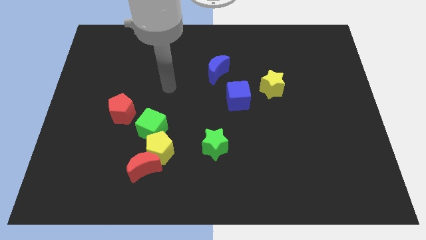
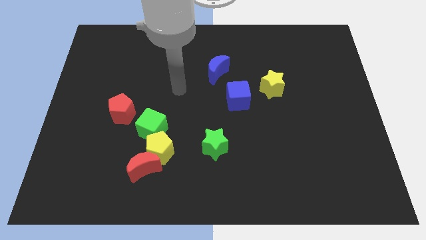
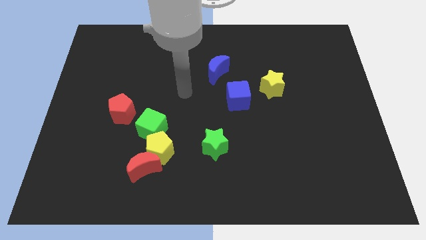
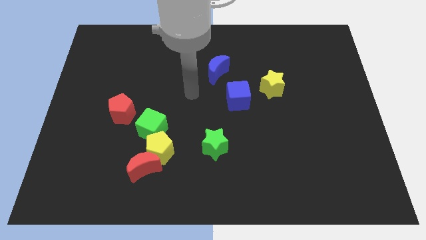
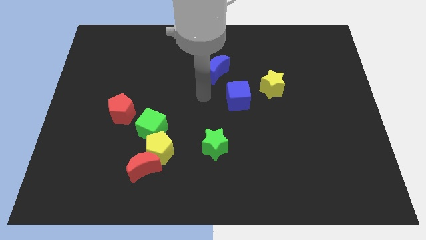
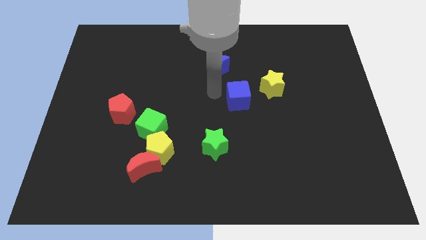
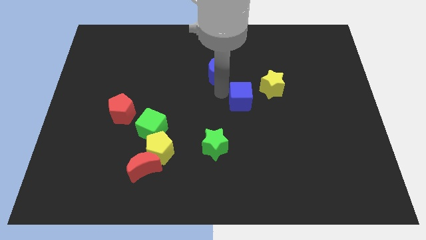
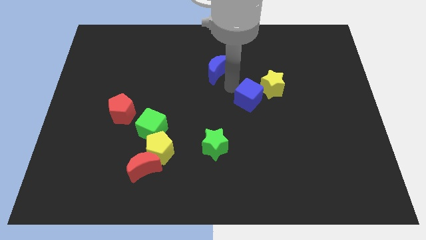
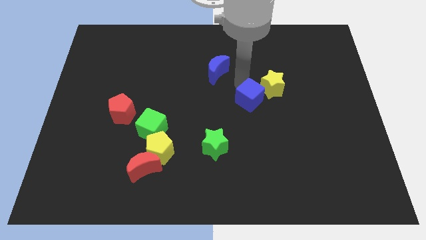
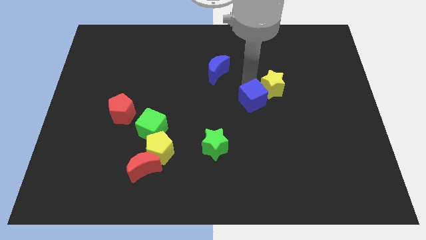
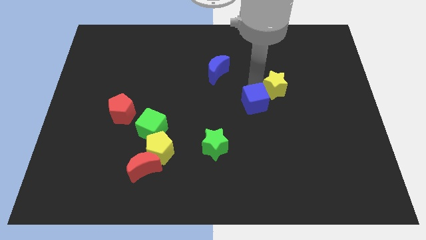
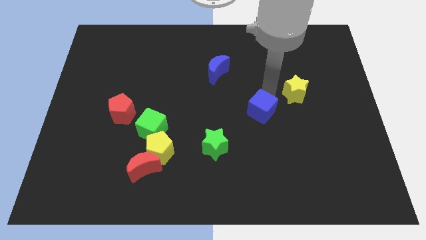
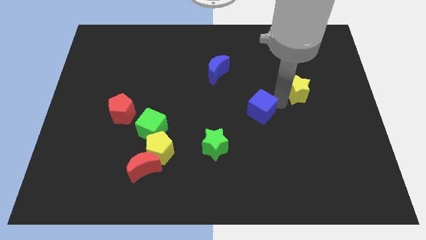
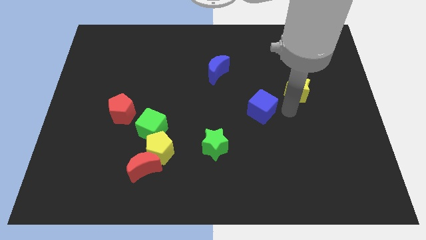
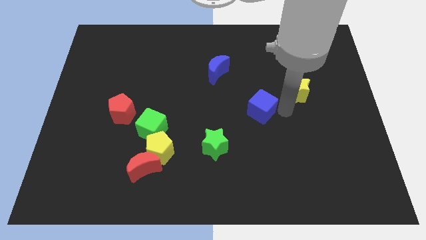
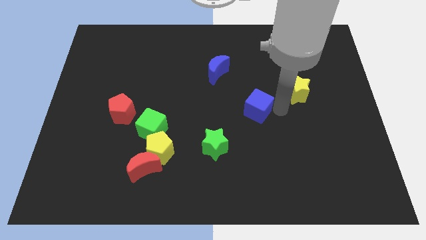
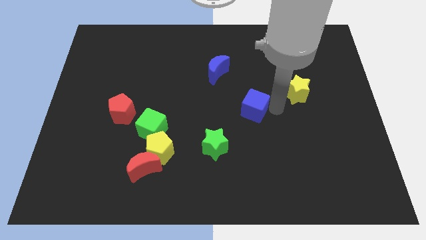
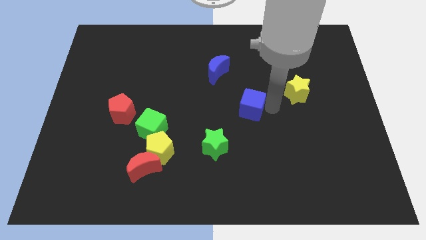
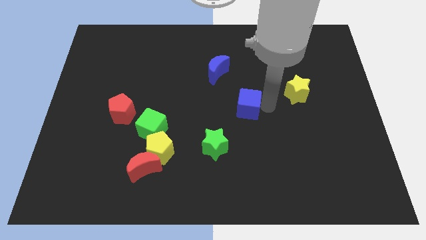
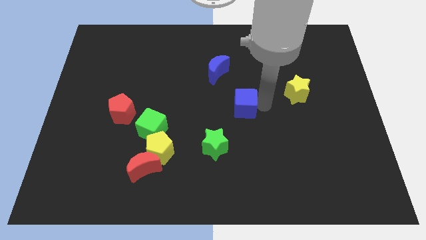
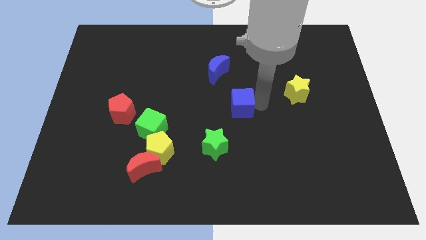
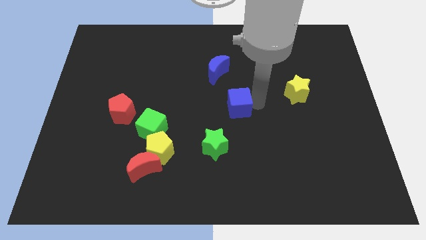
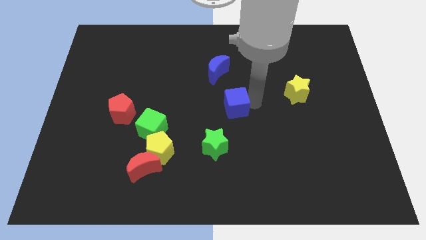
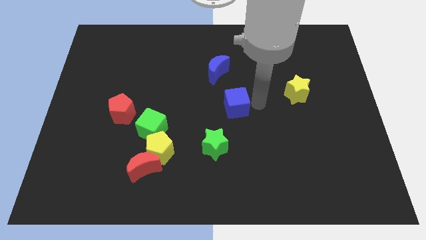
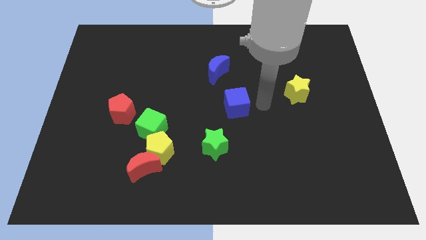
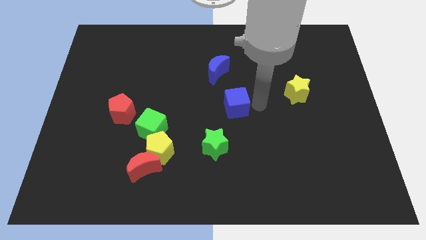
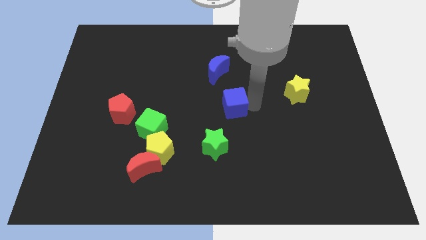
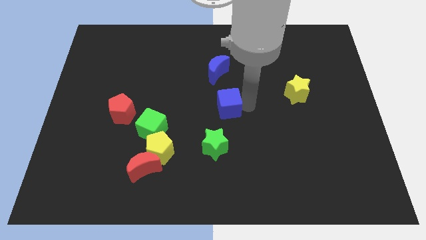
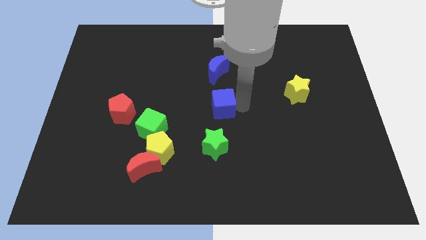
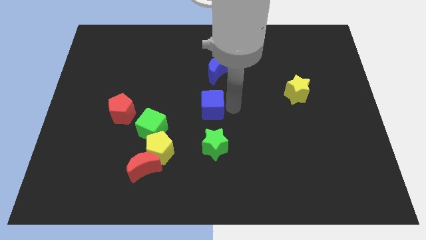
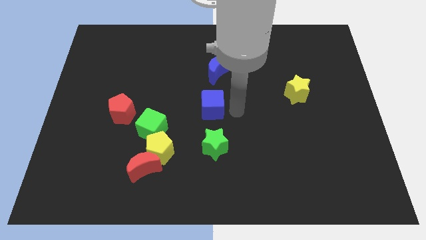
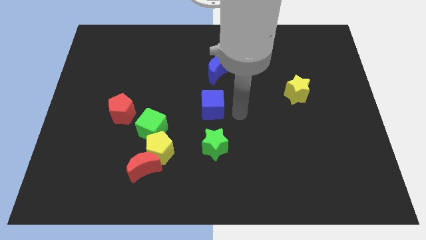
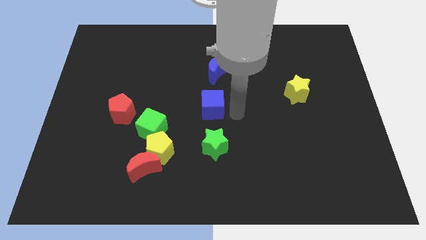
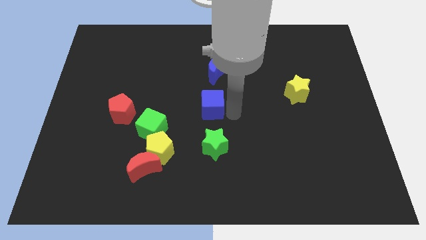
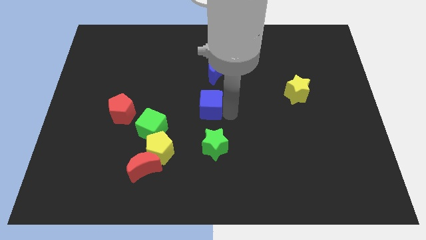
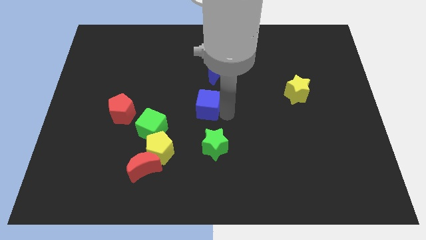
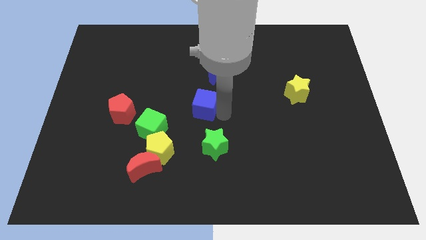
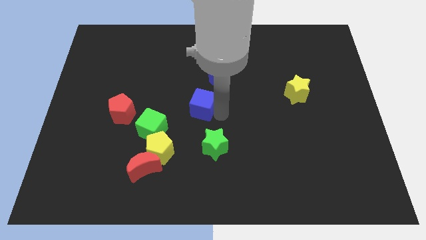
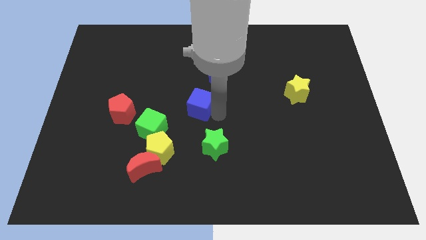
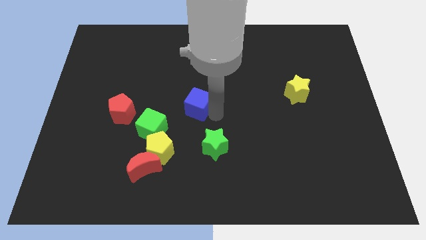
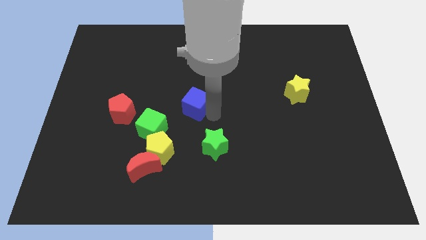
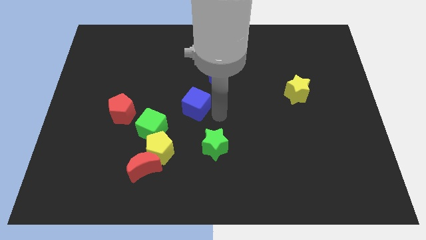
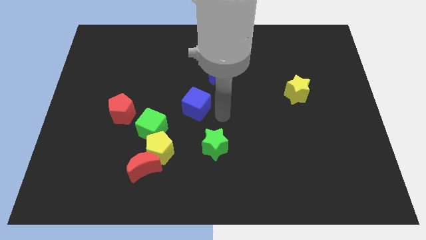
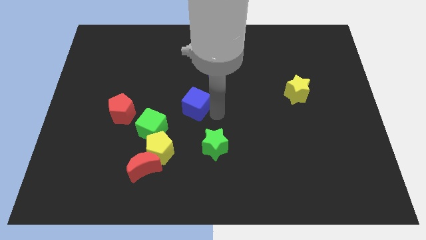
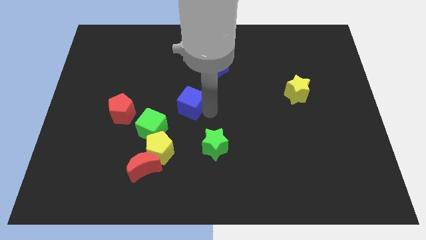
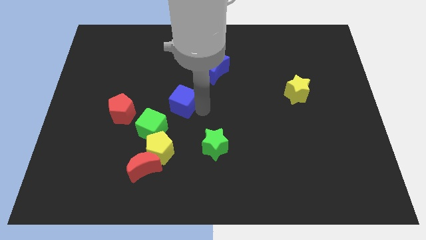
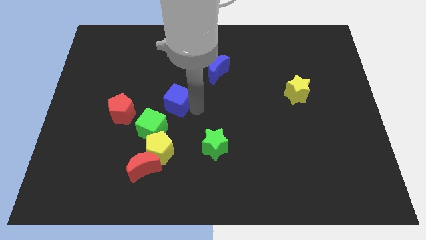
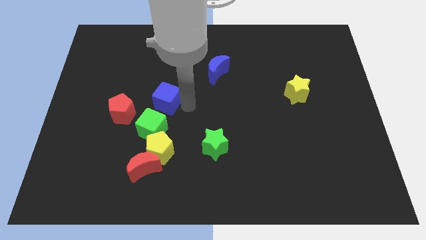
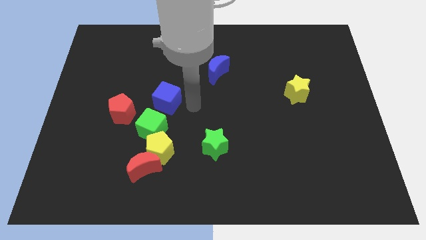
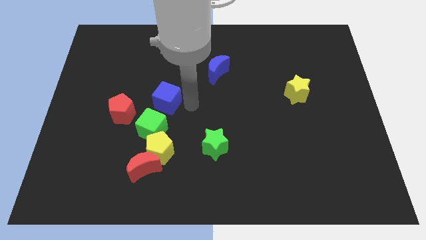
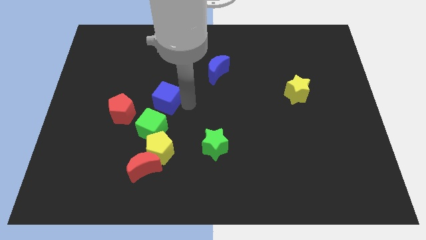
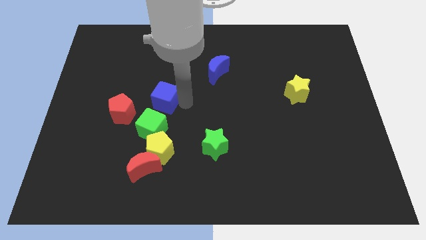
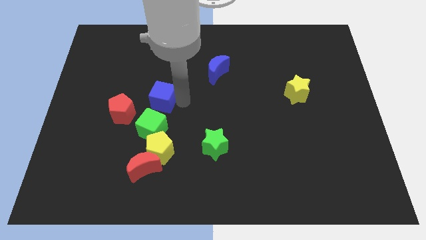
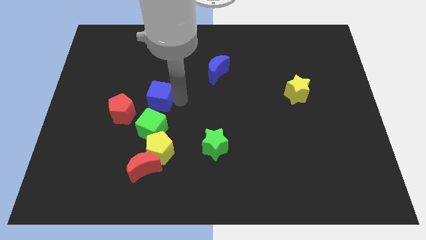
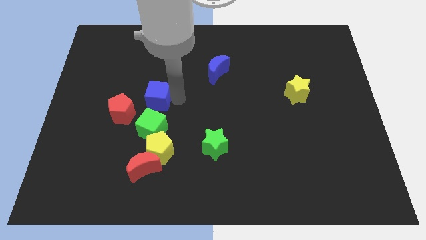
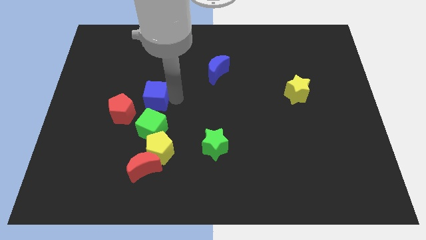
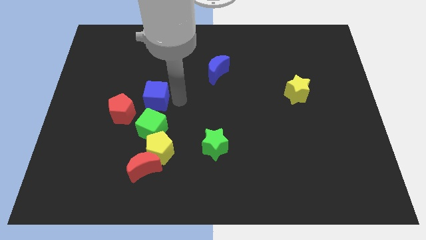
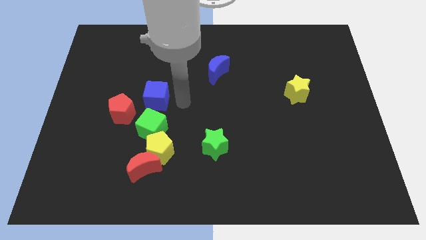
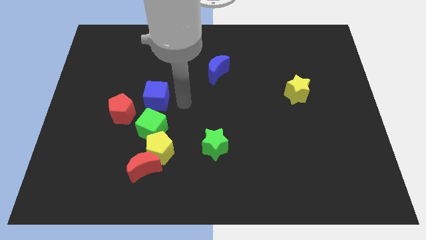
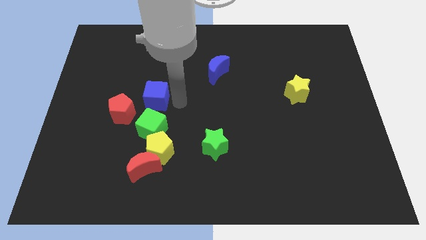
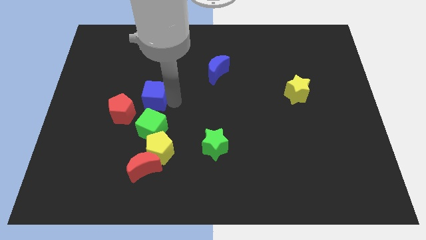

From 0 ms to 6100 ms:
move the blue cube left

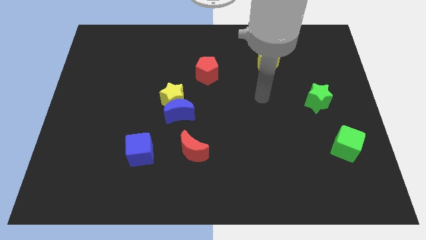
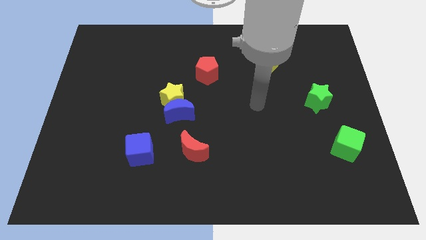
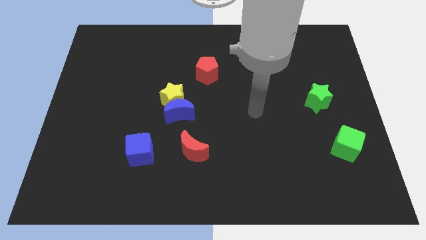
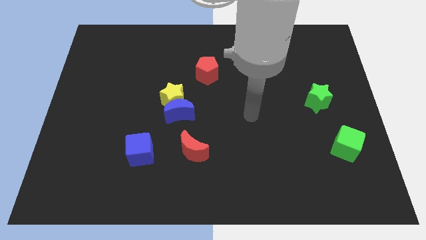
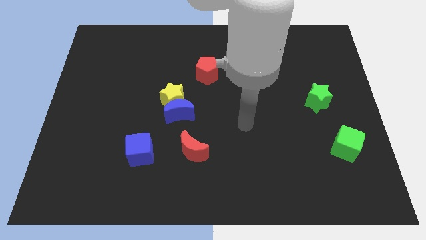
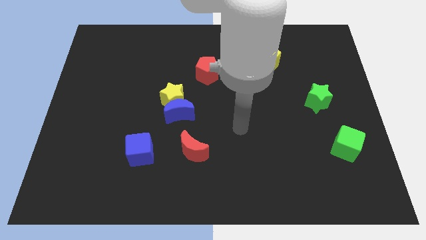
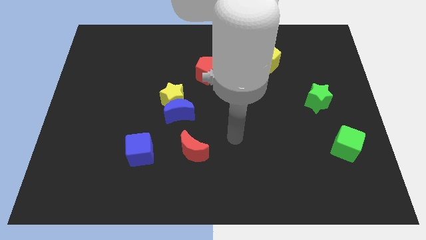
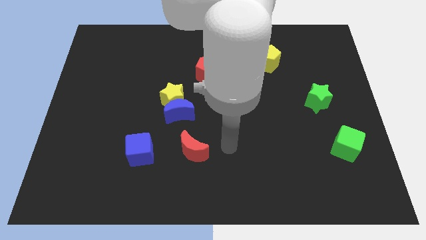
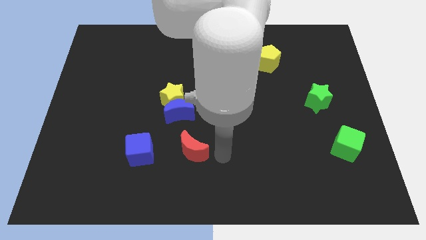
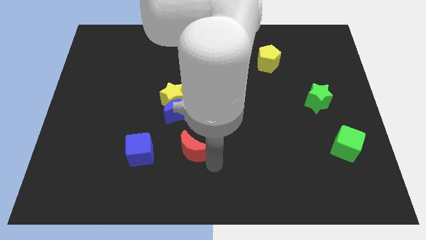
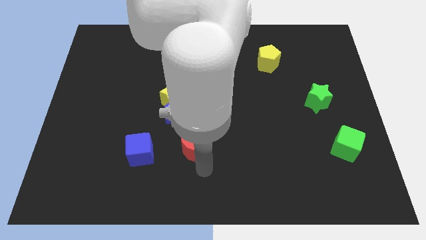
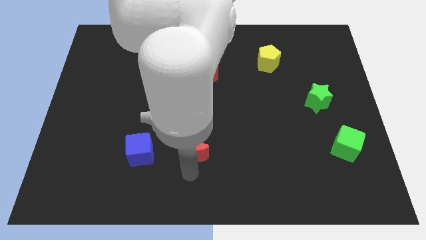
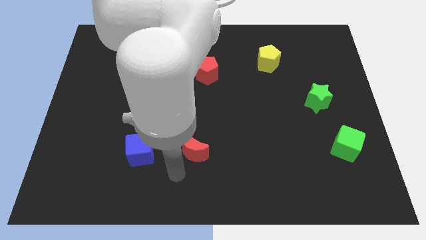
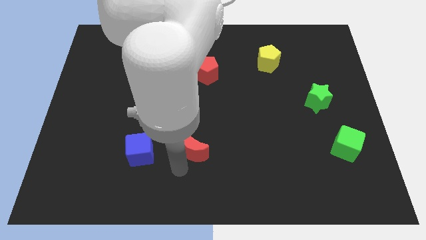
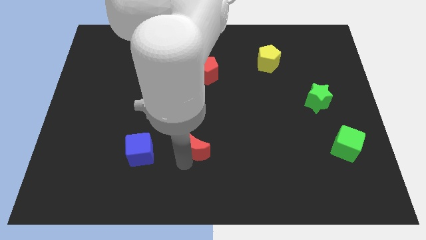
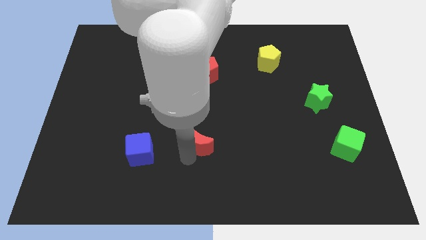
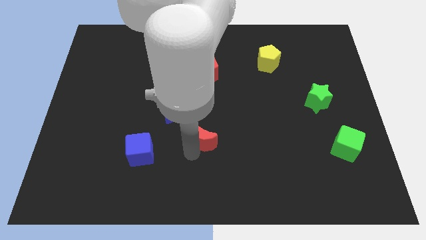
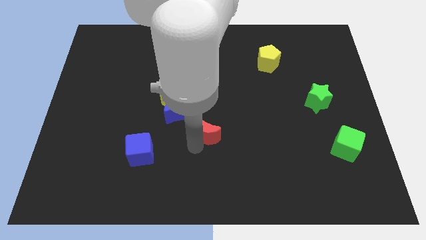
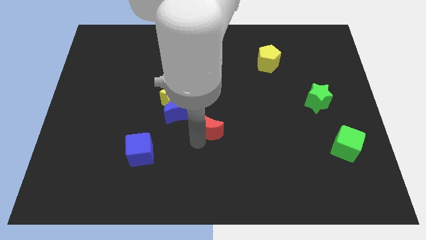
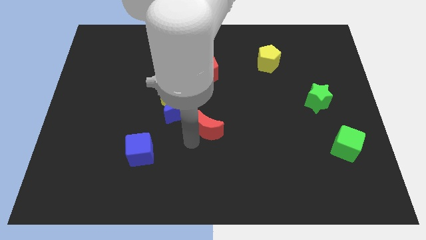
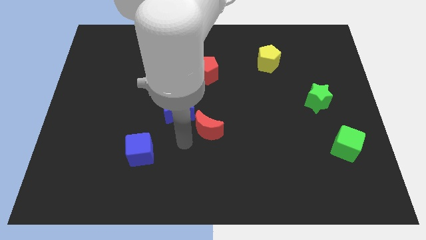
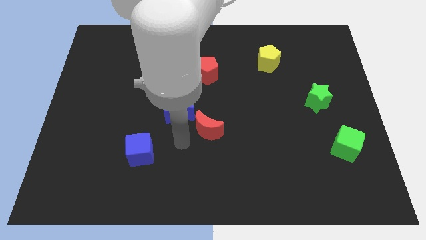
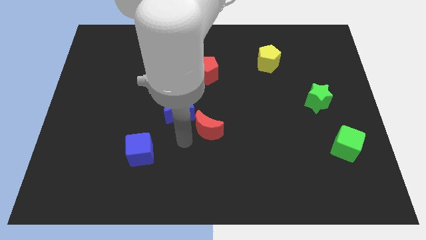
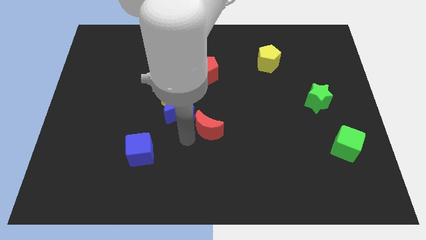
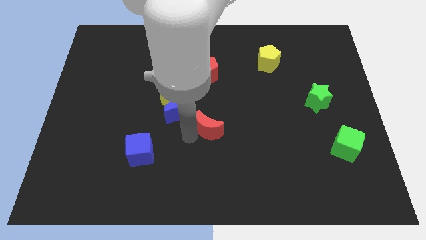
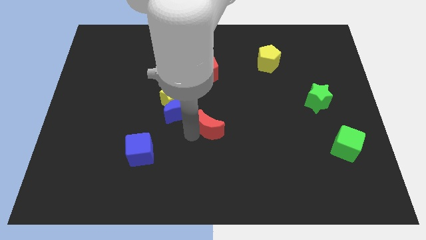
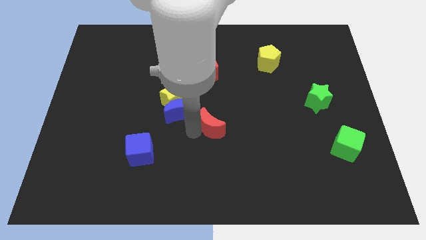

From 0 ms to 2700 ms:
move the red moon up and to the right a little
